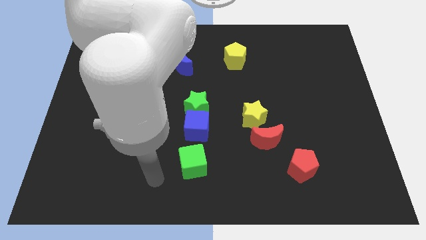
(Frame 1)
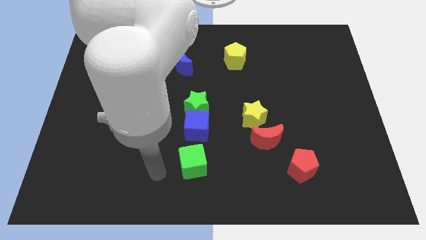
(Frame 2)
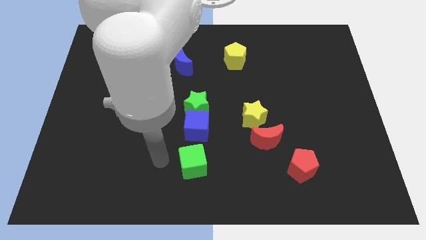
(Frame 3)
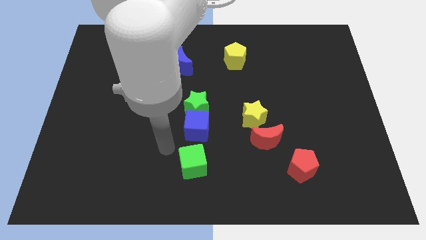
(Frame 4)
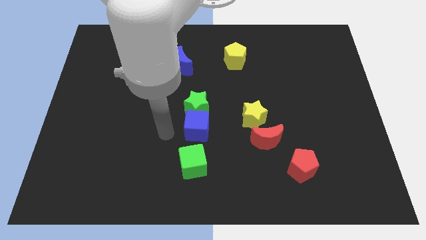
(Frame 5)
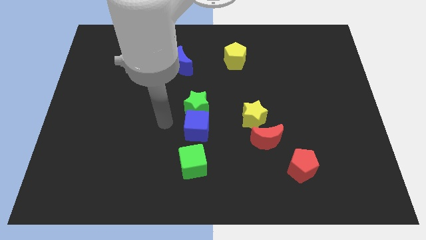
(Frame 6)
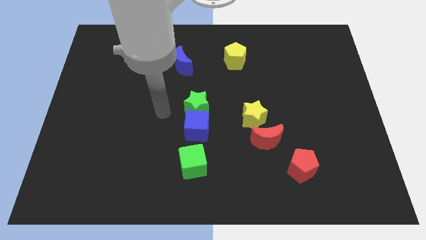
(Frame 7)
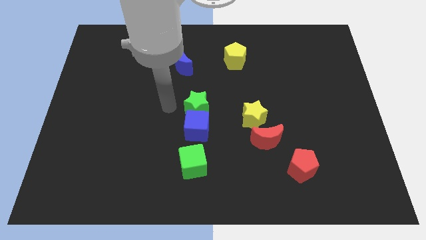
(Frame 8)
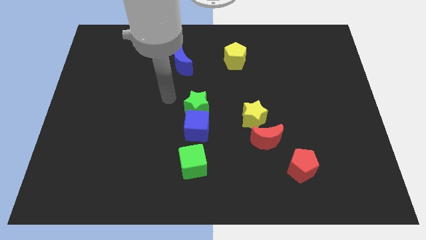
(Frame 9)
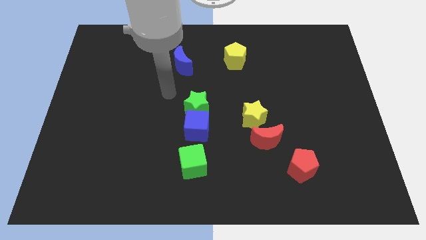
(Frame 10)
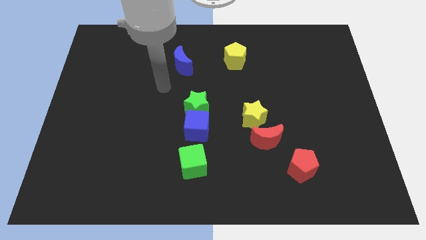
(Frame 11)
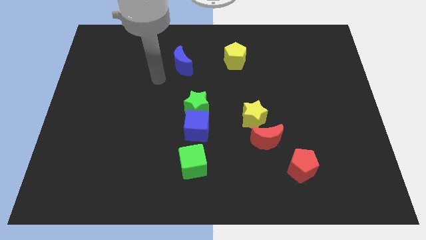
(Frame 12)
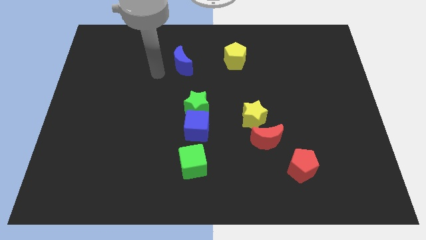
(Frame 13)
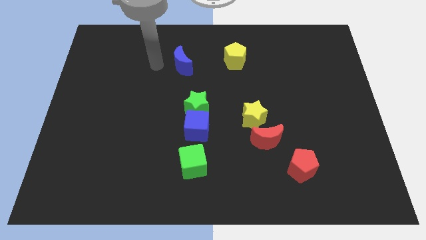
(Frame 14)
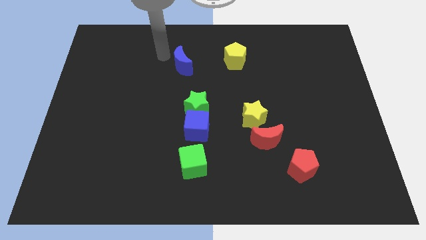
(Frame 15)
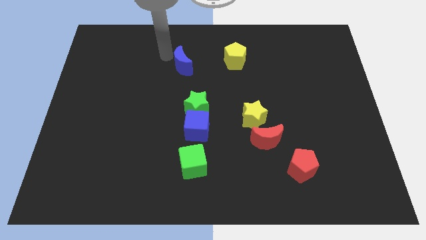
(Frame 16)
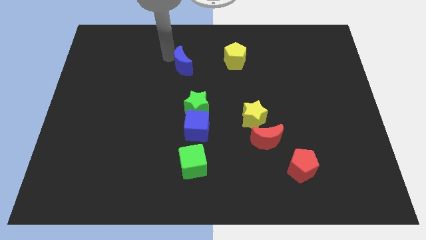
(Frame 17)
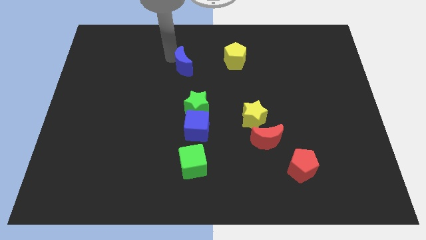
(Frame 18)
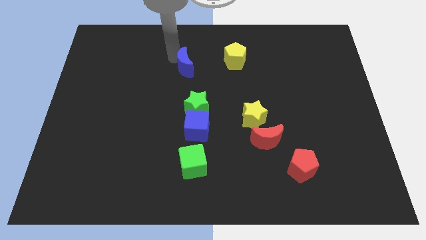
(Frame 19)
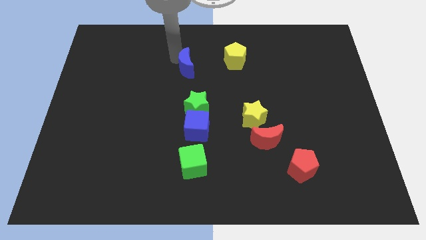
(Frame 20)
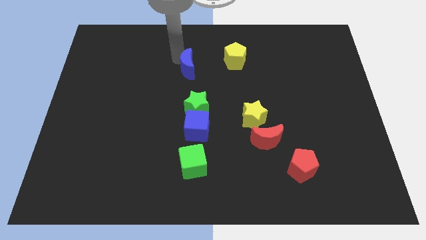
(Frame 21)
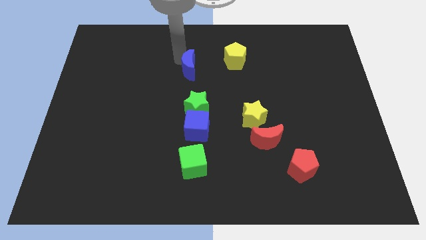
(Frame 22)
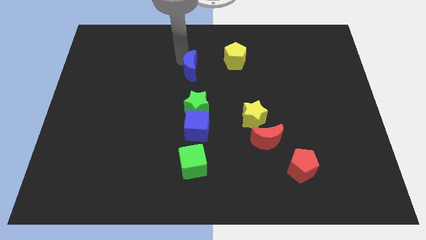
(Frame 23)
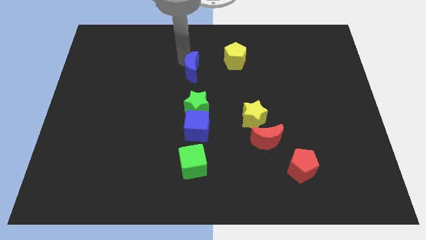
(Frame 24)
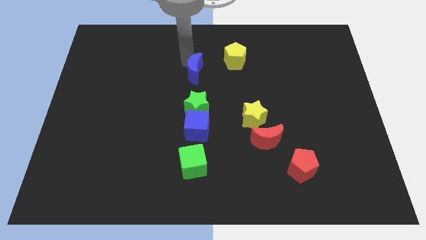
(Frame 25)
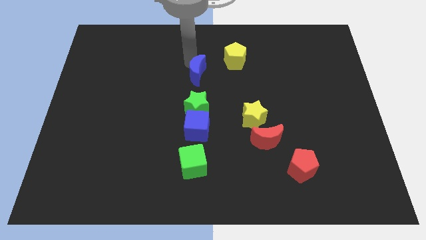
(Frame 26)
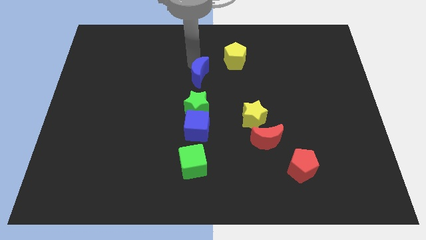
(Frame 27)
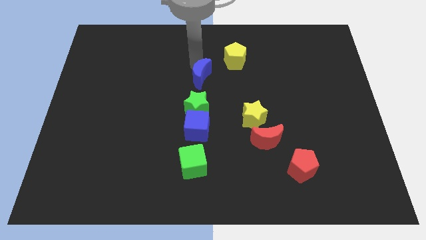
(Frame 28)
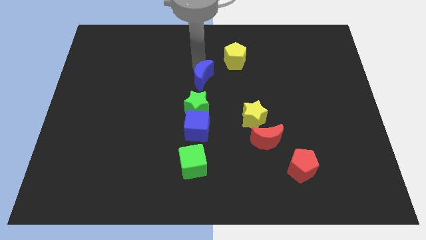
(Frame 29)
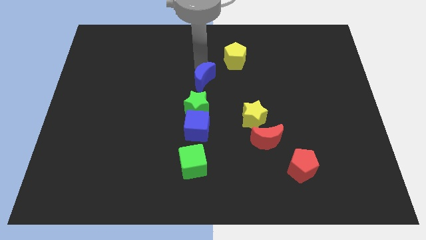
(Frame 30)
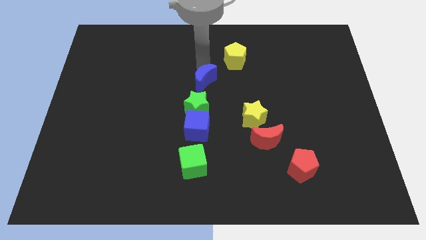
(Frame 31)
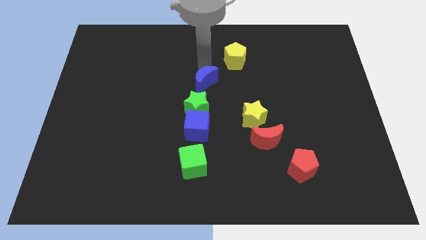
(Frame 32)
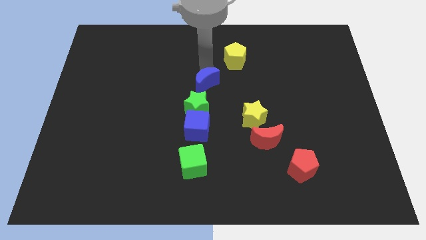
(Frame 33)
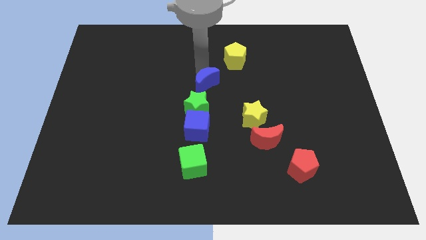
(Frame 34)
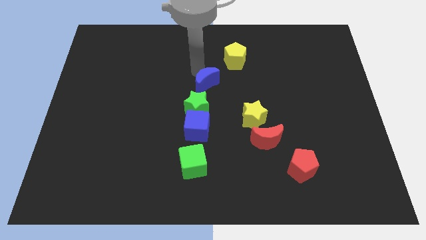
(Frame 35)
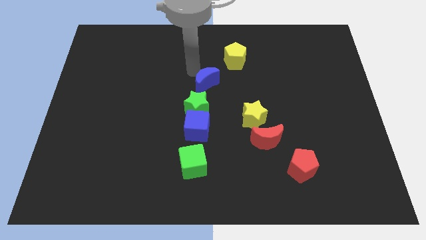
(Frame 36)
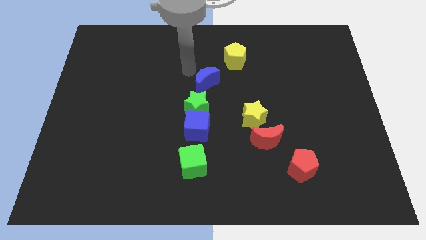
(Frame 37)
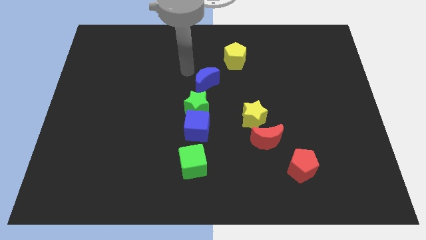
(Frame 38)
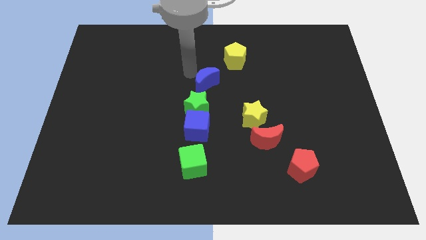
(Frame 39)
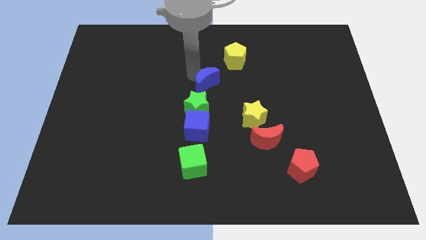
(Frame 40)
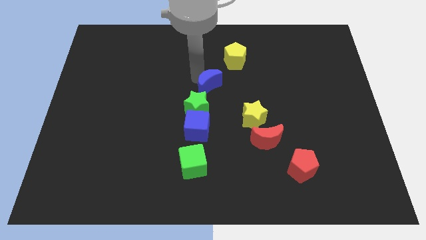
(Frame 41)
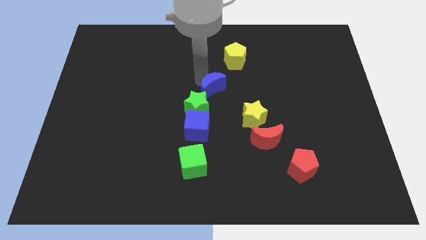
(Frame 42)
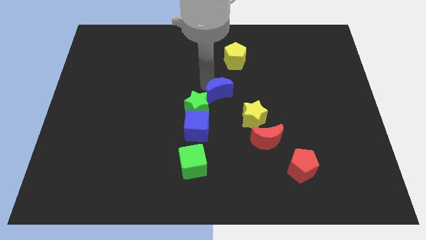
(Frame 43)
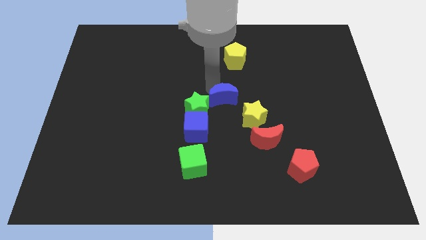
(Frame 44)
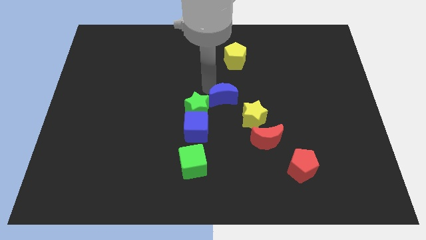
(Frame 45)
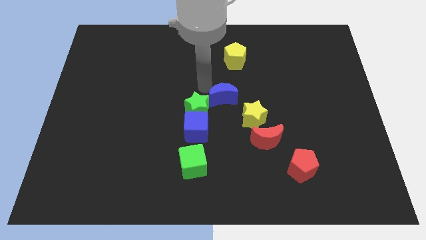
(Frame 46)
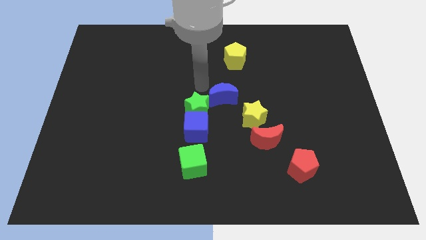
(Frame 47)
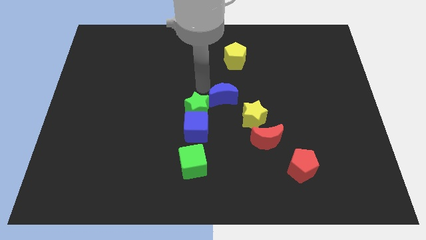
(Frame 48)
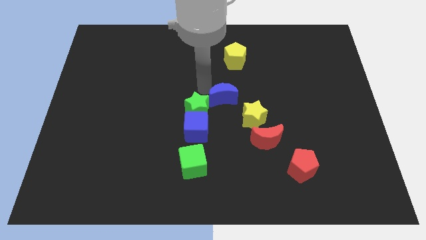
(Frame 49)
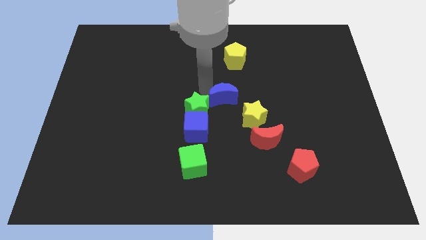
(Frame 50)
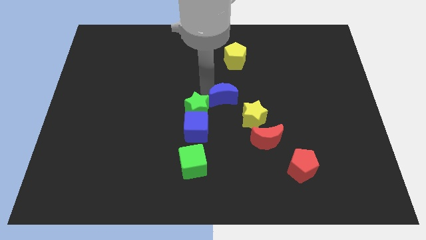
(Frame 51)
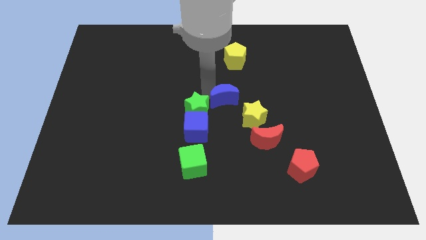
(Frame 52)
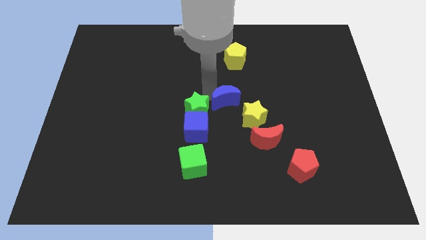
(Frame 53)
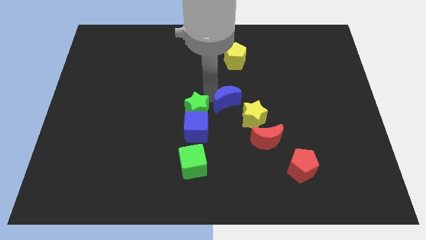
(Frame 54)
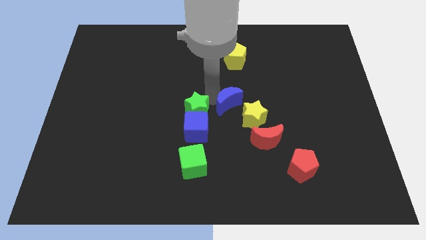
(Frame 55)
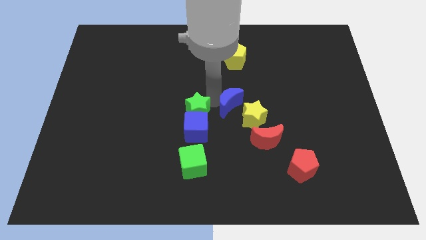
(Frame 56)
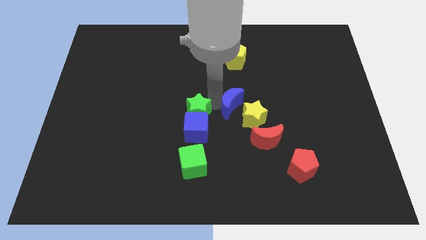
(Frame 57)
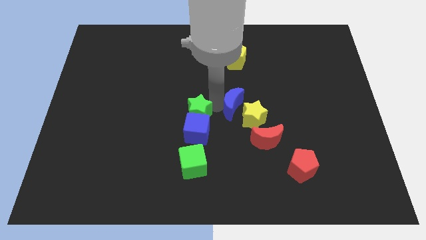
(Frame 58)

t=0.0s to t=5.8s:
slide the blue moon next to the yellow star

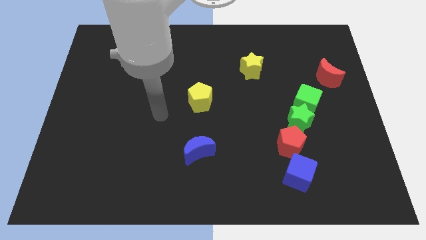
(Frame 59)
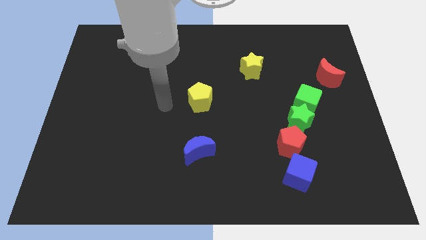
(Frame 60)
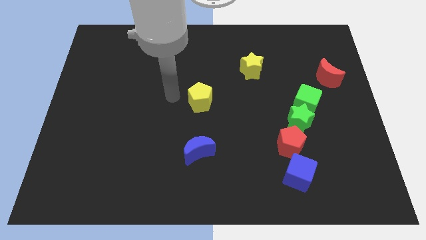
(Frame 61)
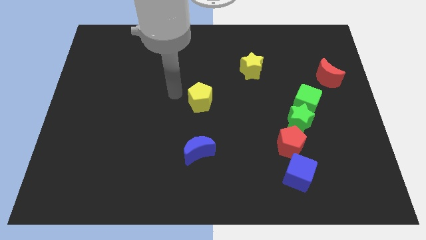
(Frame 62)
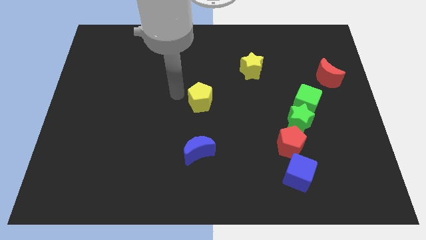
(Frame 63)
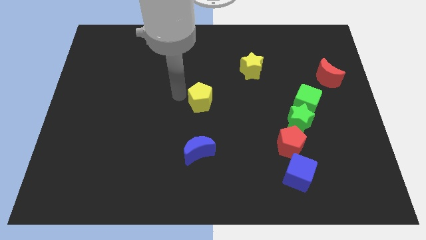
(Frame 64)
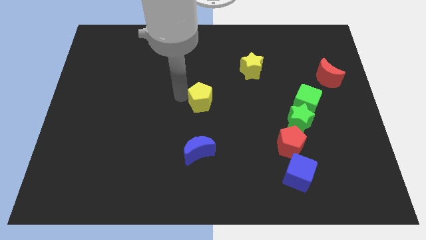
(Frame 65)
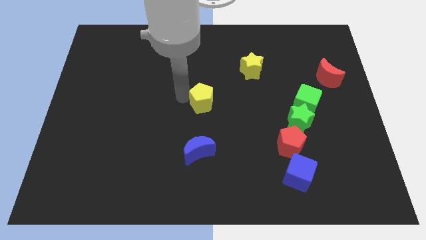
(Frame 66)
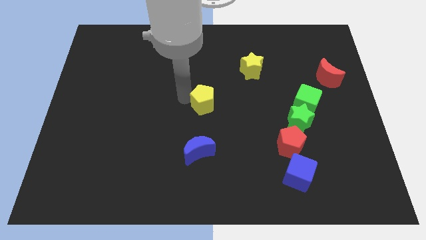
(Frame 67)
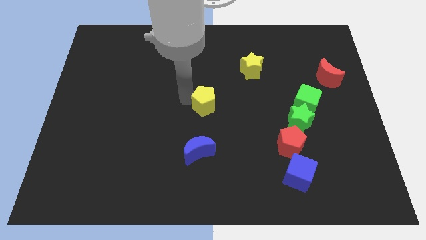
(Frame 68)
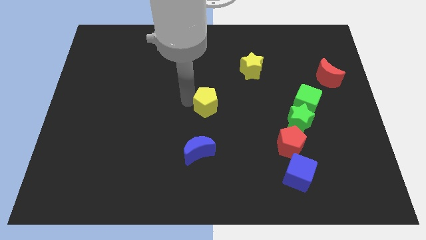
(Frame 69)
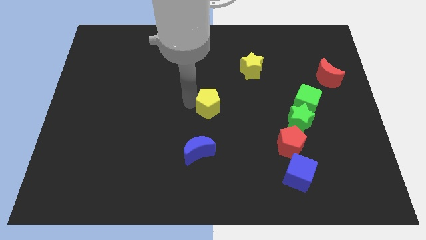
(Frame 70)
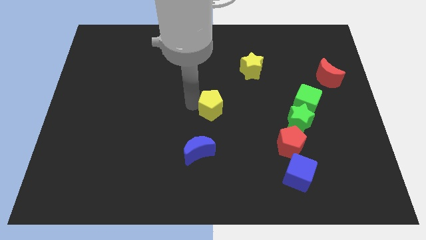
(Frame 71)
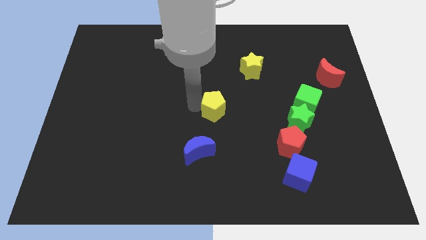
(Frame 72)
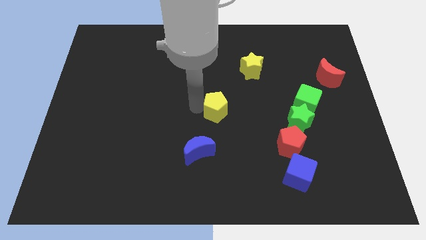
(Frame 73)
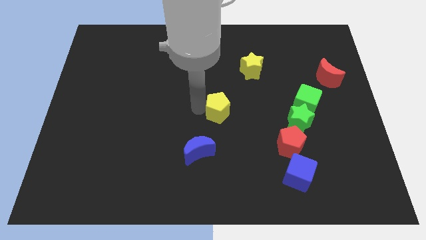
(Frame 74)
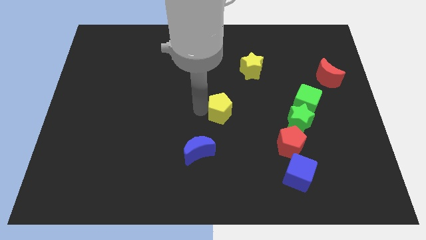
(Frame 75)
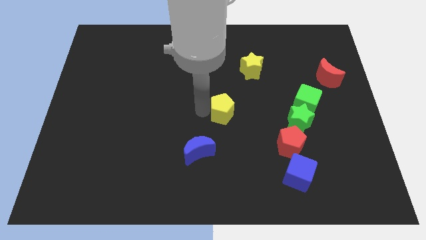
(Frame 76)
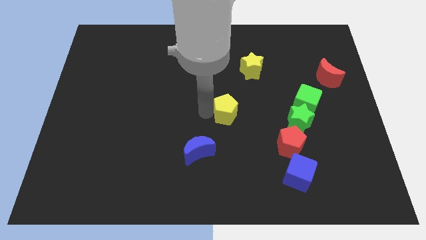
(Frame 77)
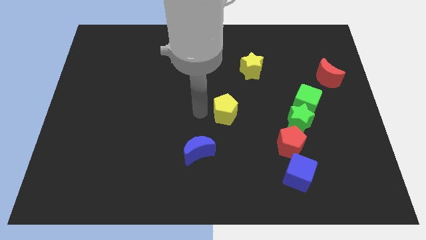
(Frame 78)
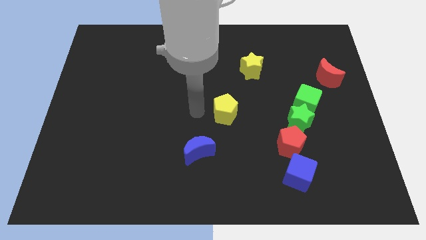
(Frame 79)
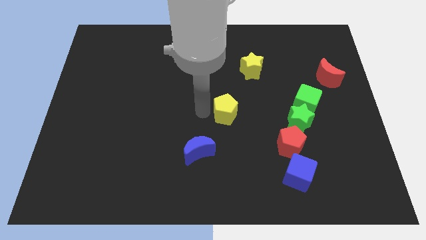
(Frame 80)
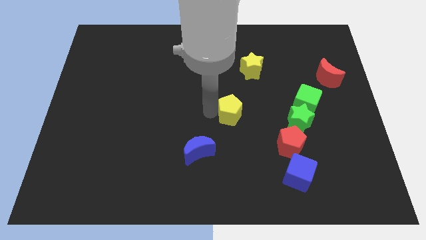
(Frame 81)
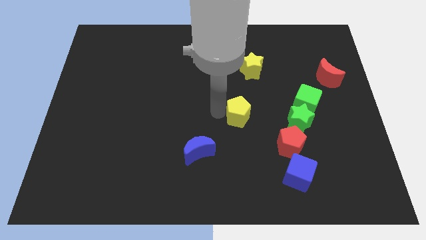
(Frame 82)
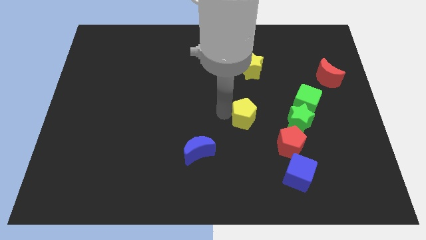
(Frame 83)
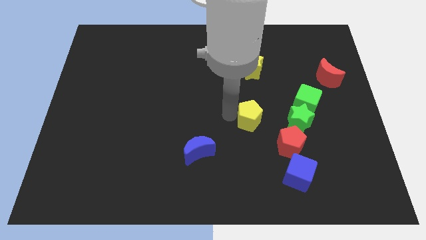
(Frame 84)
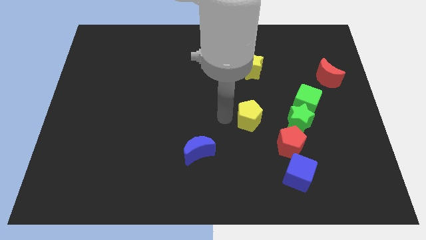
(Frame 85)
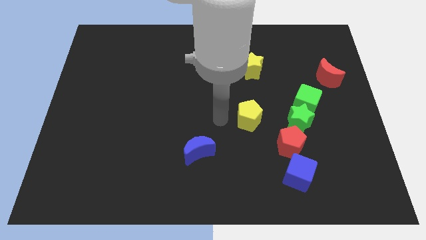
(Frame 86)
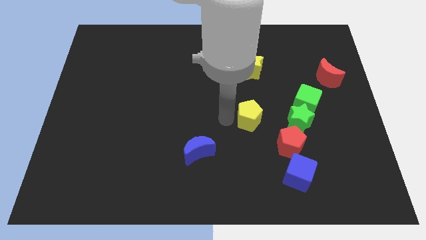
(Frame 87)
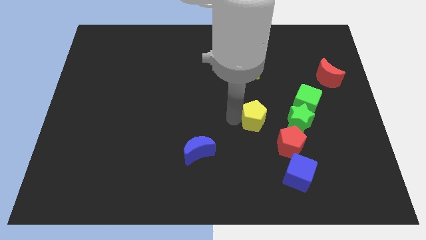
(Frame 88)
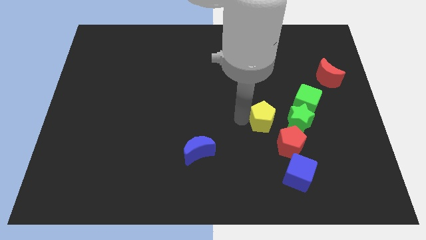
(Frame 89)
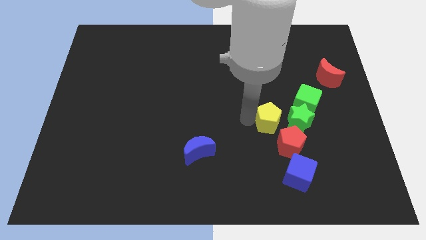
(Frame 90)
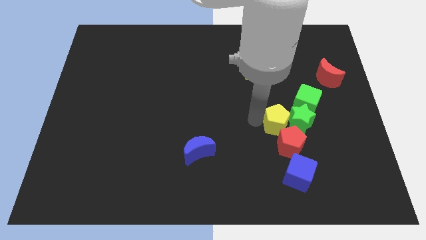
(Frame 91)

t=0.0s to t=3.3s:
put the yellow pentagon towards the green star
